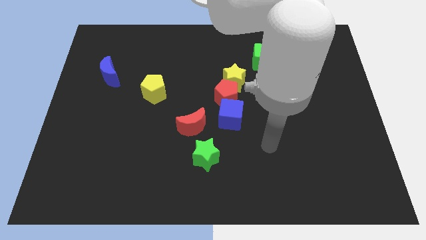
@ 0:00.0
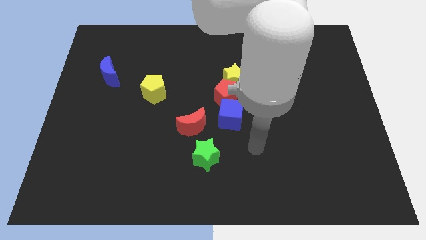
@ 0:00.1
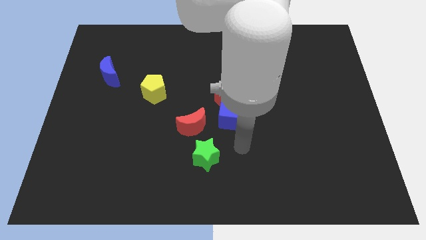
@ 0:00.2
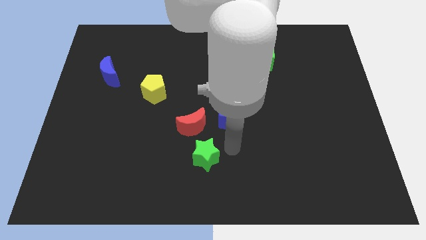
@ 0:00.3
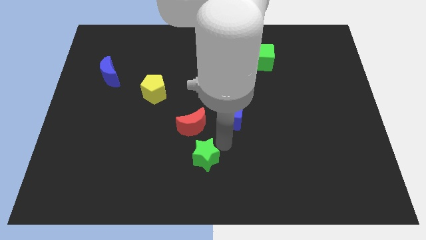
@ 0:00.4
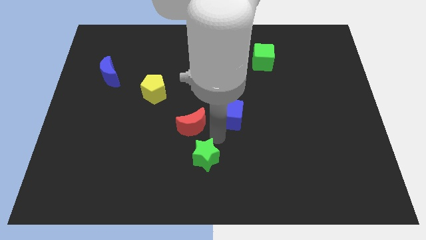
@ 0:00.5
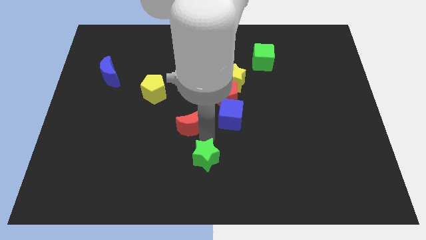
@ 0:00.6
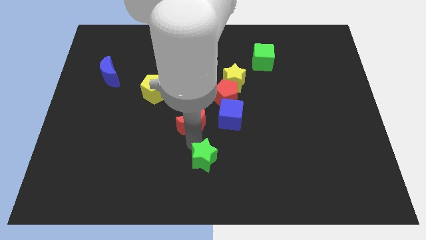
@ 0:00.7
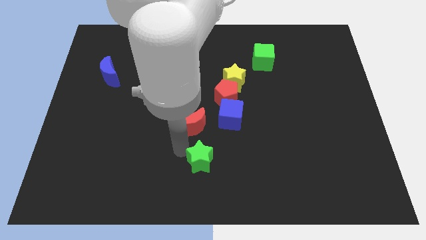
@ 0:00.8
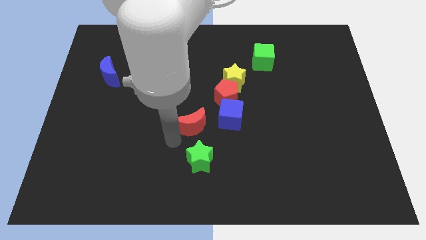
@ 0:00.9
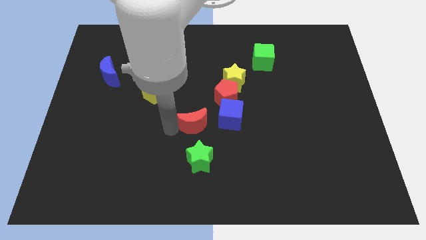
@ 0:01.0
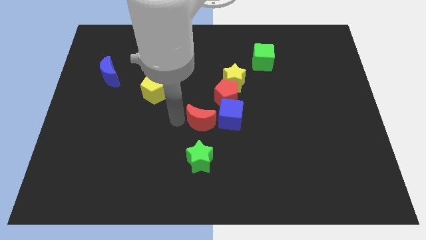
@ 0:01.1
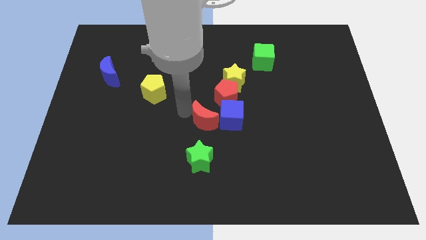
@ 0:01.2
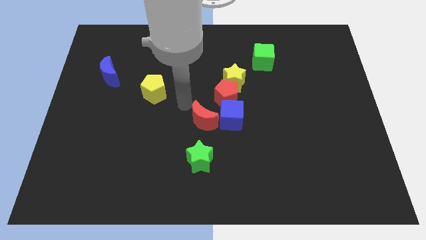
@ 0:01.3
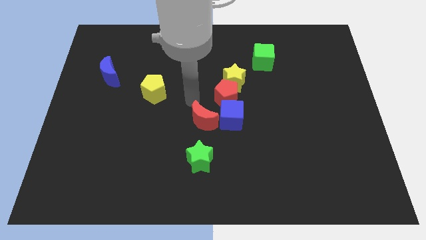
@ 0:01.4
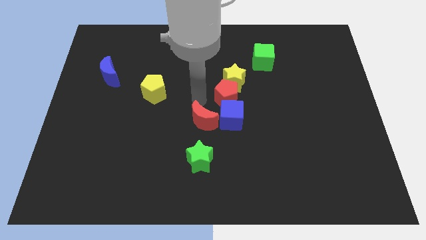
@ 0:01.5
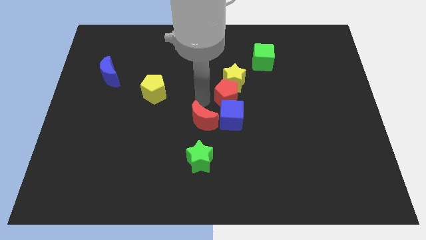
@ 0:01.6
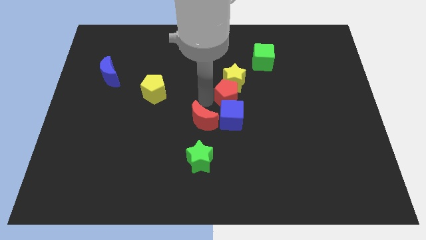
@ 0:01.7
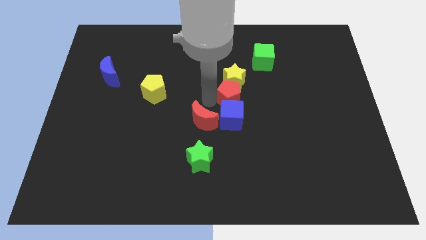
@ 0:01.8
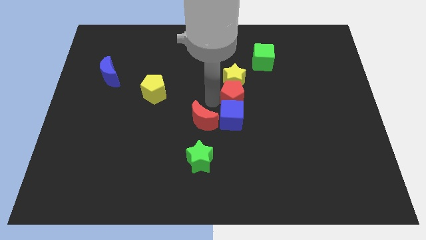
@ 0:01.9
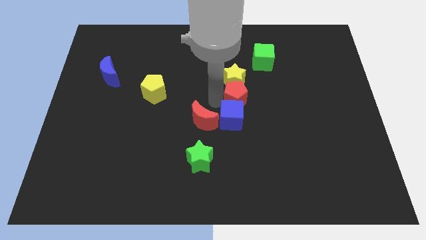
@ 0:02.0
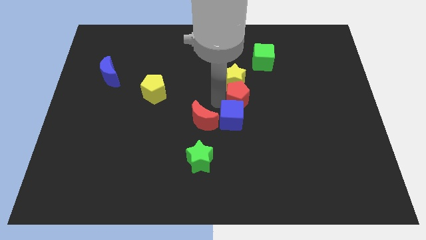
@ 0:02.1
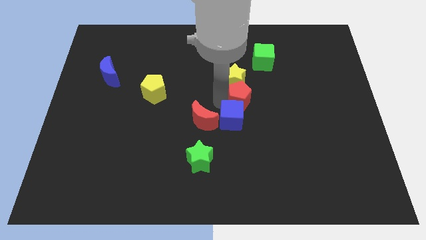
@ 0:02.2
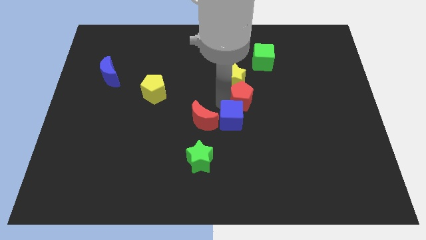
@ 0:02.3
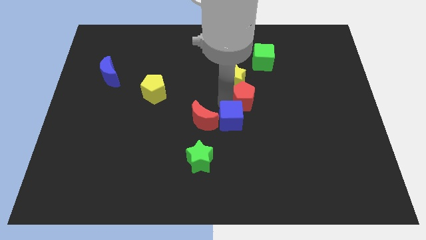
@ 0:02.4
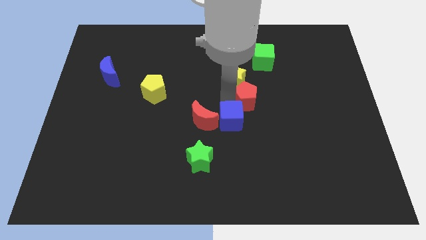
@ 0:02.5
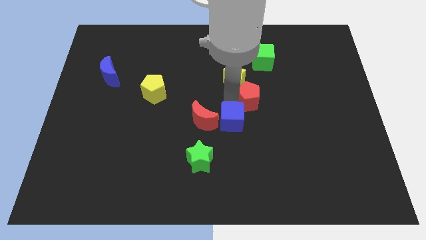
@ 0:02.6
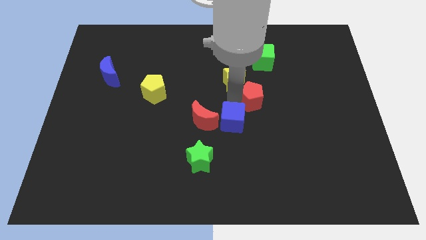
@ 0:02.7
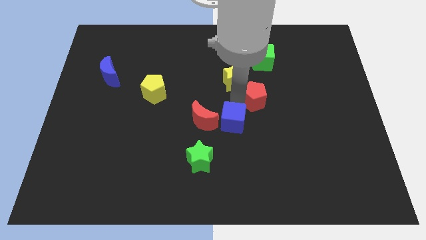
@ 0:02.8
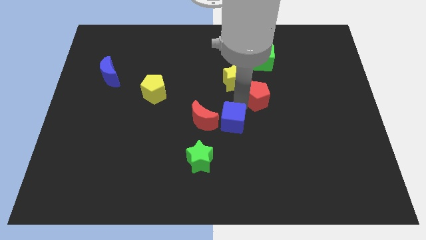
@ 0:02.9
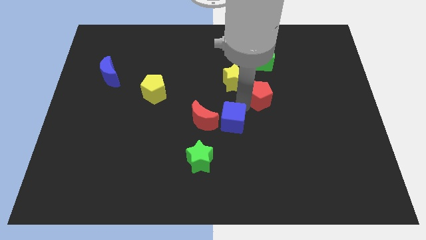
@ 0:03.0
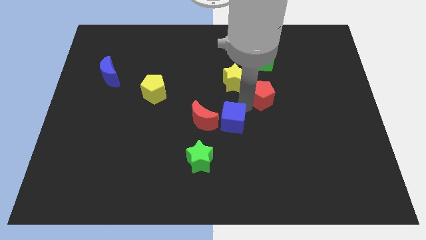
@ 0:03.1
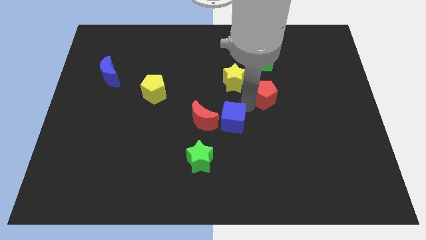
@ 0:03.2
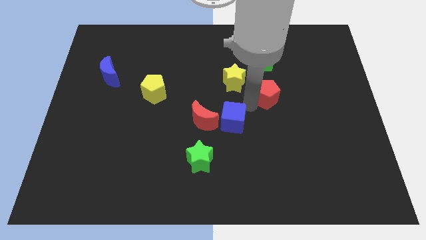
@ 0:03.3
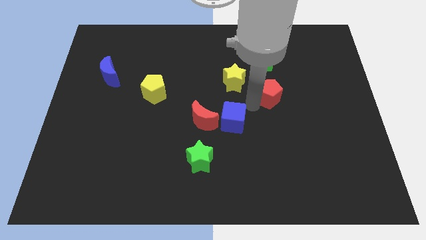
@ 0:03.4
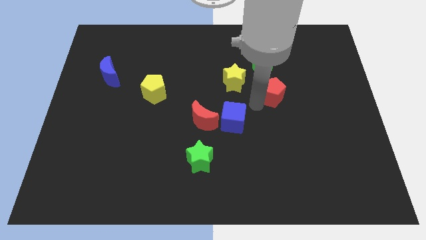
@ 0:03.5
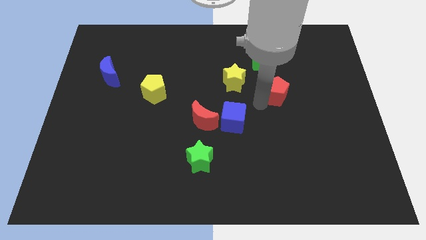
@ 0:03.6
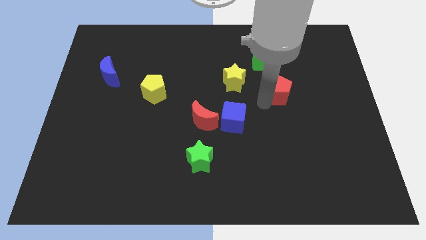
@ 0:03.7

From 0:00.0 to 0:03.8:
slightly push the red pentagon upwards and then to the right

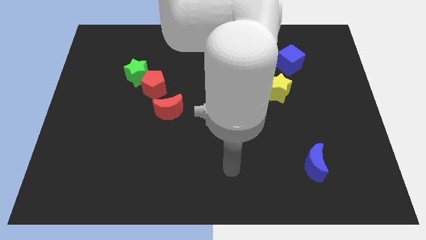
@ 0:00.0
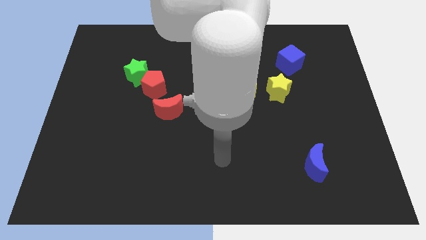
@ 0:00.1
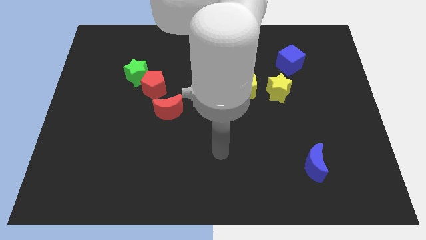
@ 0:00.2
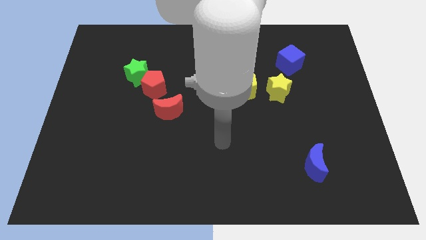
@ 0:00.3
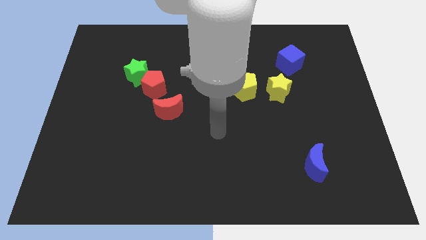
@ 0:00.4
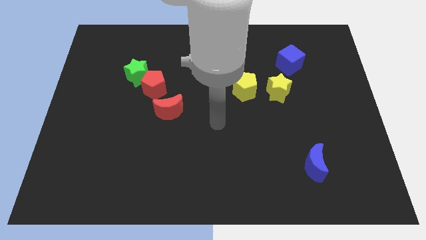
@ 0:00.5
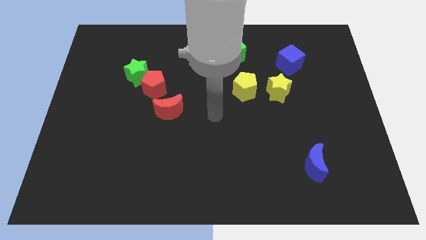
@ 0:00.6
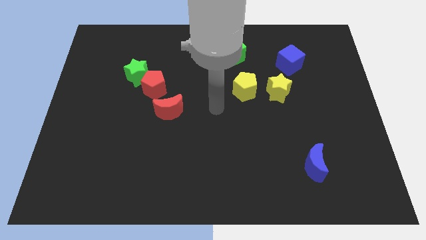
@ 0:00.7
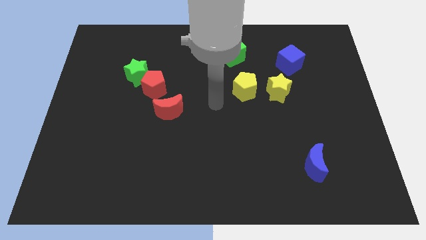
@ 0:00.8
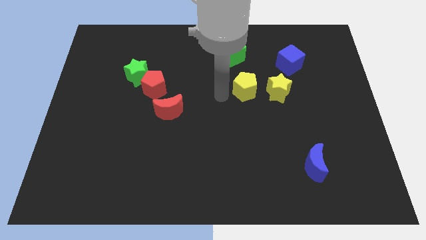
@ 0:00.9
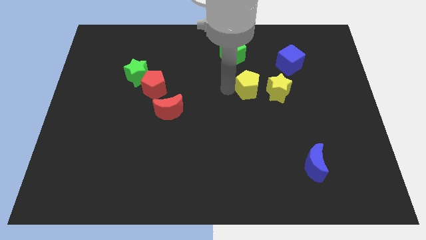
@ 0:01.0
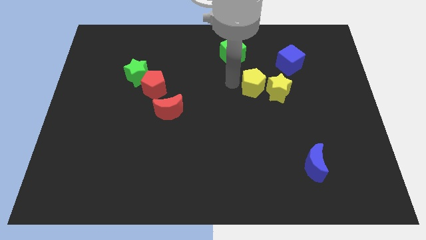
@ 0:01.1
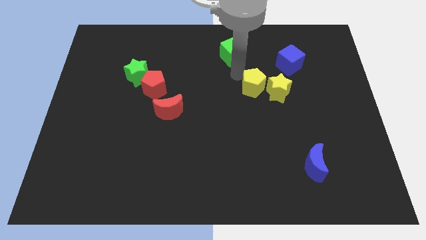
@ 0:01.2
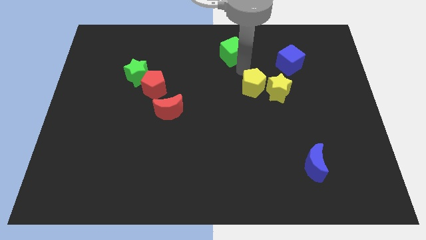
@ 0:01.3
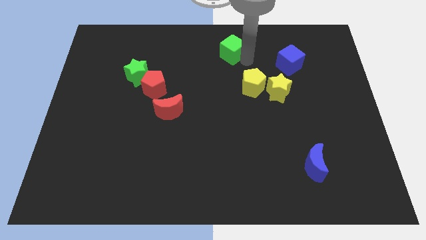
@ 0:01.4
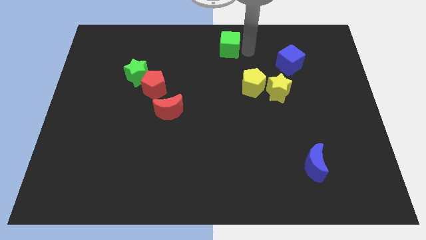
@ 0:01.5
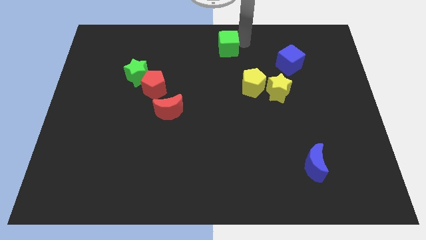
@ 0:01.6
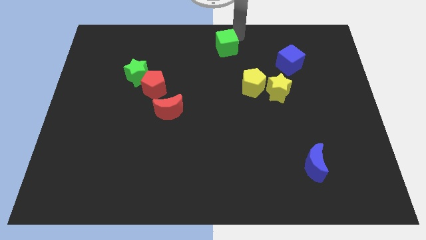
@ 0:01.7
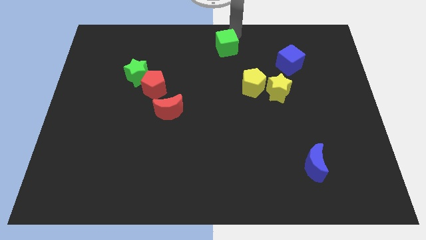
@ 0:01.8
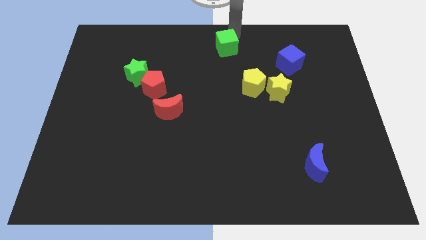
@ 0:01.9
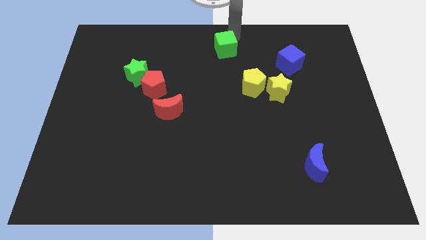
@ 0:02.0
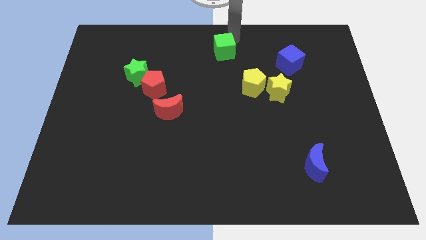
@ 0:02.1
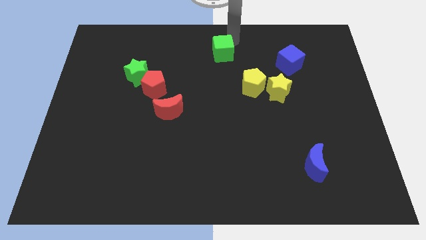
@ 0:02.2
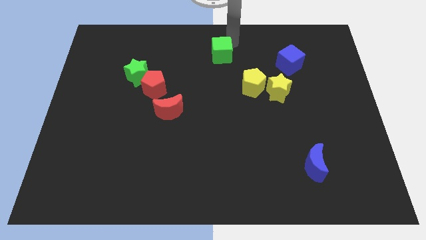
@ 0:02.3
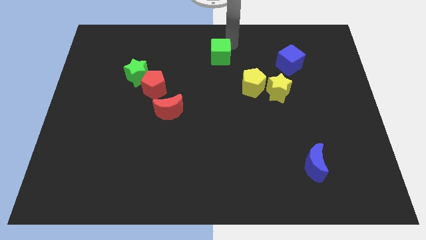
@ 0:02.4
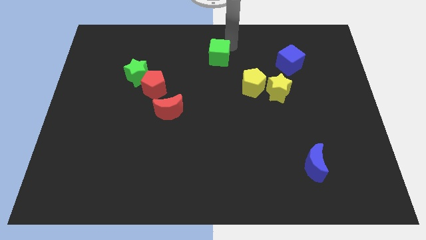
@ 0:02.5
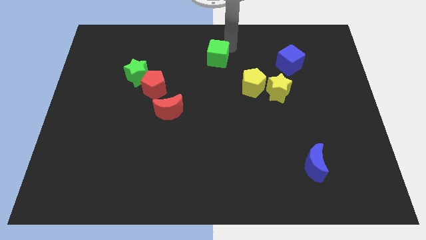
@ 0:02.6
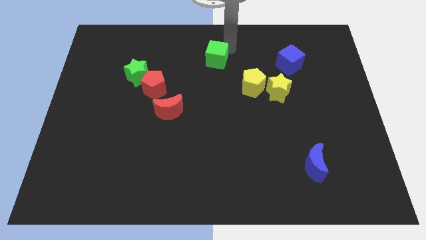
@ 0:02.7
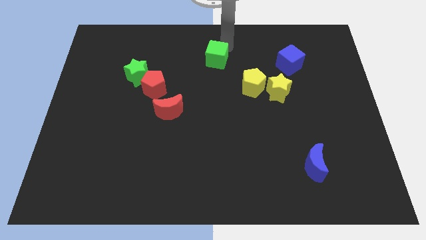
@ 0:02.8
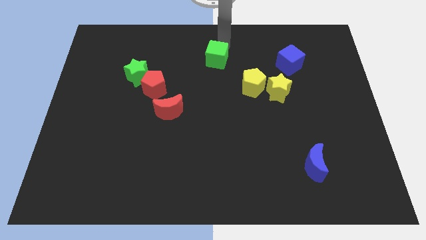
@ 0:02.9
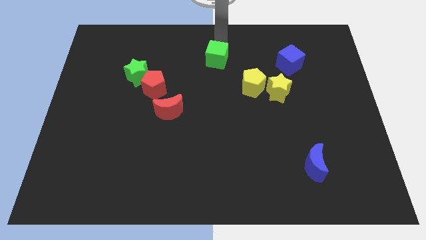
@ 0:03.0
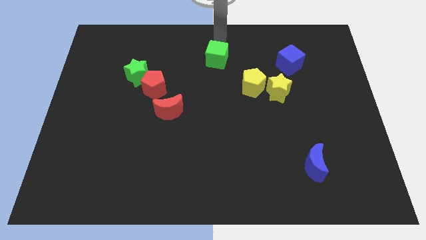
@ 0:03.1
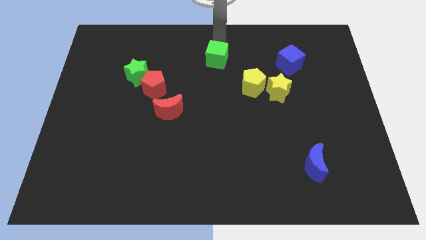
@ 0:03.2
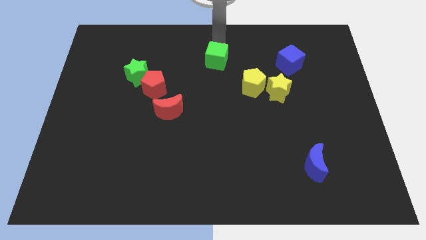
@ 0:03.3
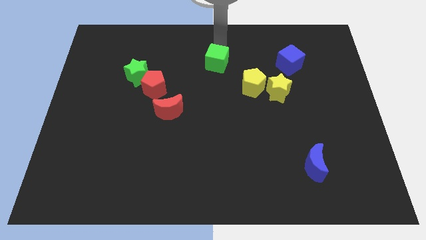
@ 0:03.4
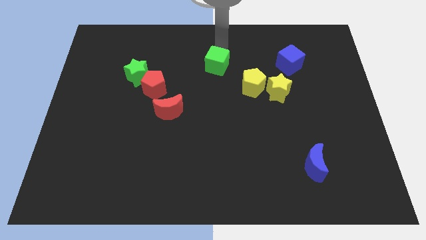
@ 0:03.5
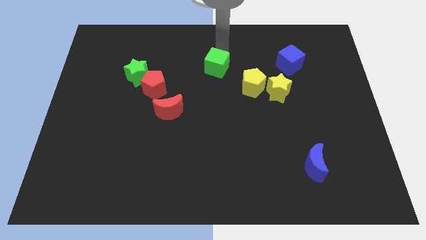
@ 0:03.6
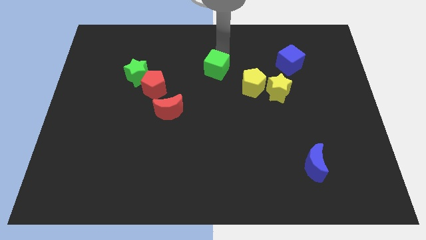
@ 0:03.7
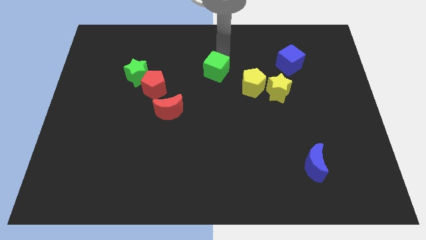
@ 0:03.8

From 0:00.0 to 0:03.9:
slide the green cube a little down and left diagonally
